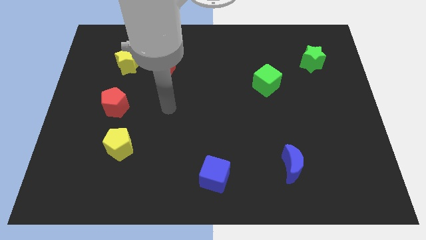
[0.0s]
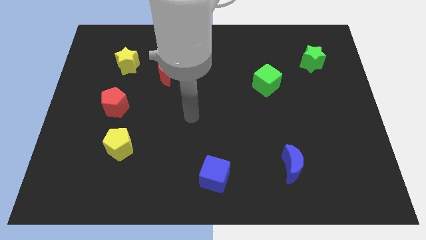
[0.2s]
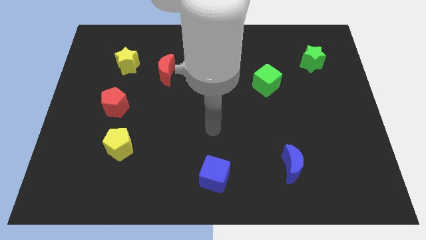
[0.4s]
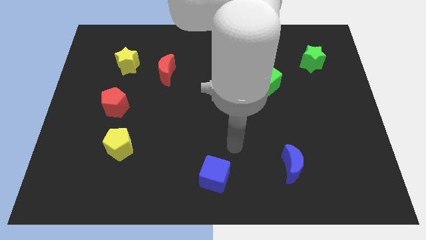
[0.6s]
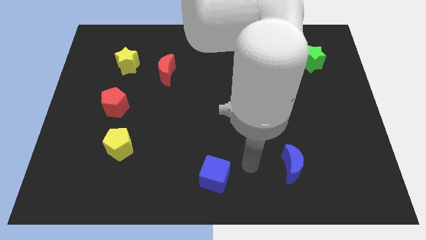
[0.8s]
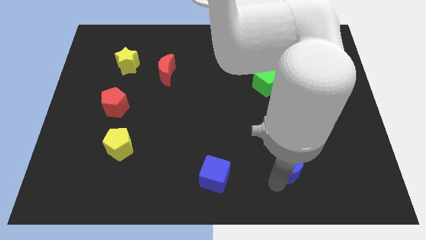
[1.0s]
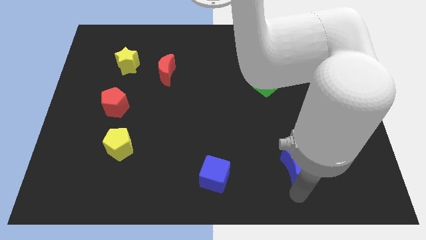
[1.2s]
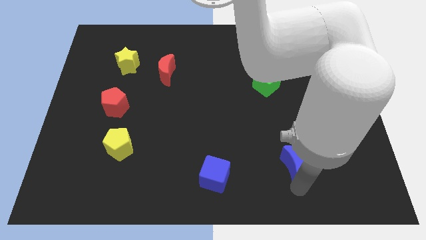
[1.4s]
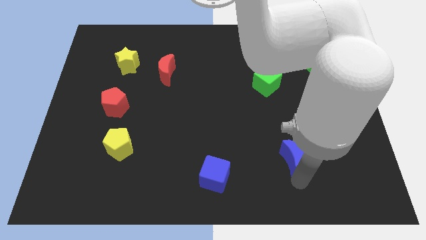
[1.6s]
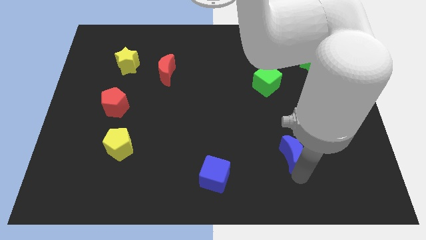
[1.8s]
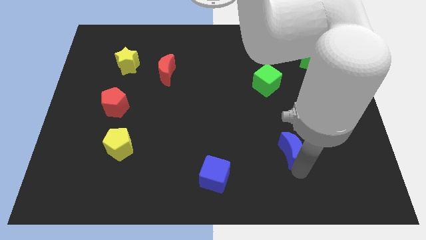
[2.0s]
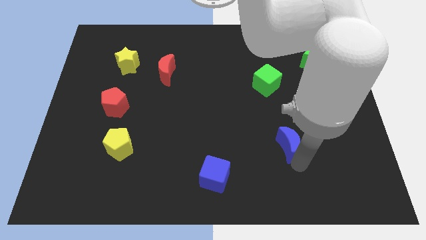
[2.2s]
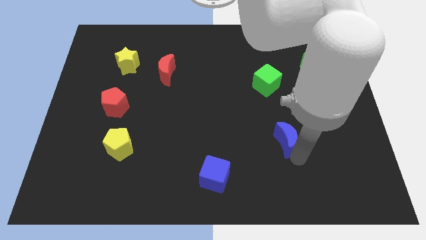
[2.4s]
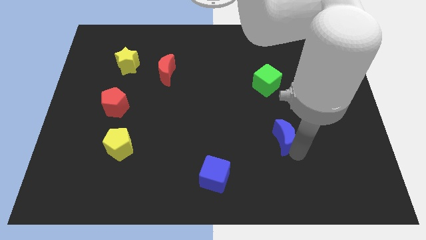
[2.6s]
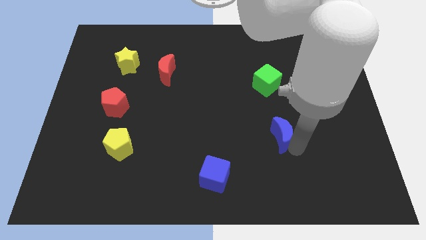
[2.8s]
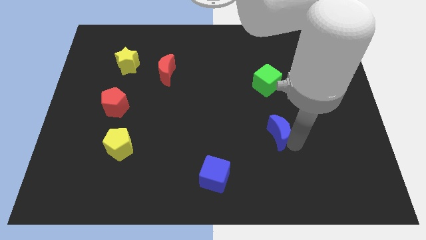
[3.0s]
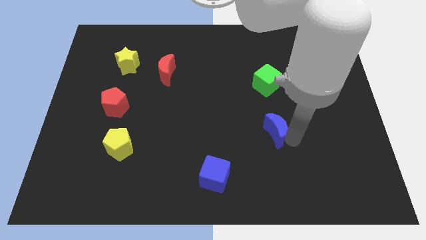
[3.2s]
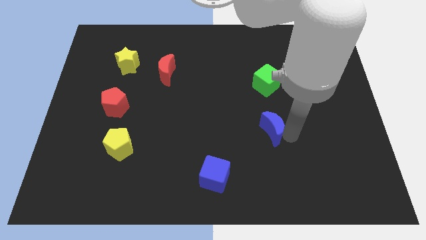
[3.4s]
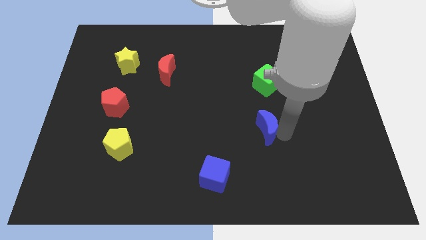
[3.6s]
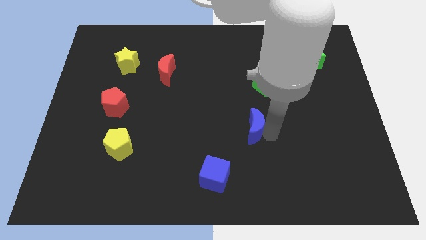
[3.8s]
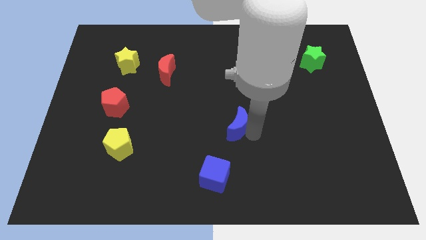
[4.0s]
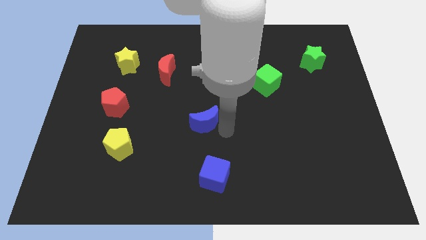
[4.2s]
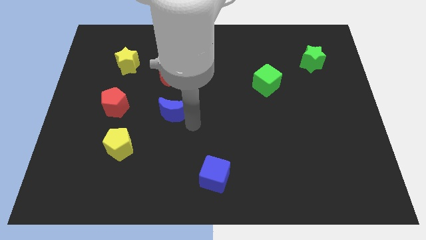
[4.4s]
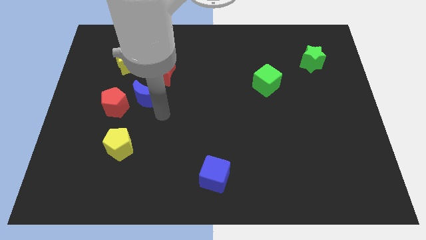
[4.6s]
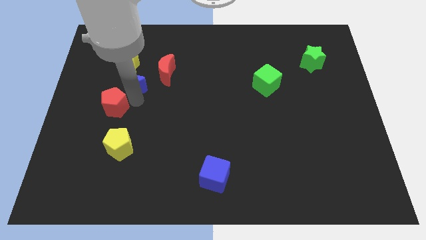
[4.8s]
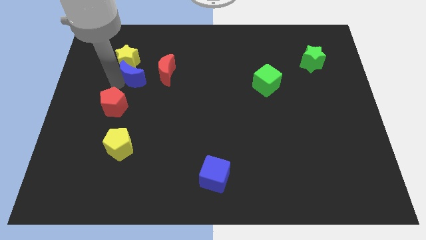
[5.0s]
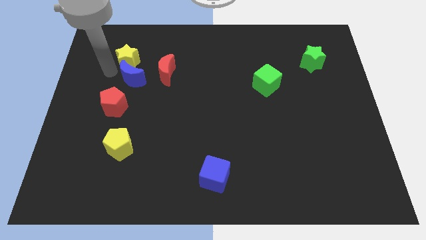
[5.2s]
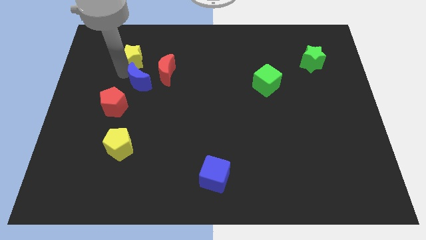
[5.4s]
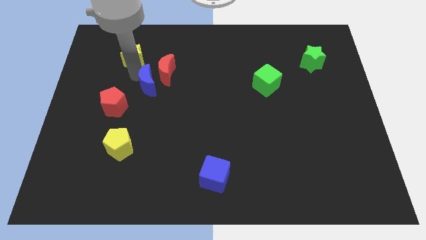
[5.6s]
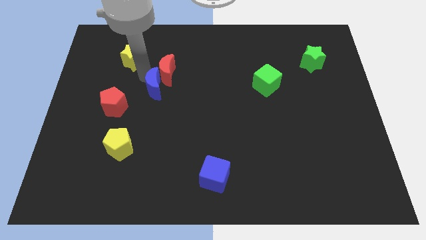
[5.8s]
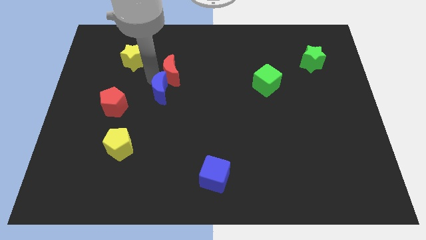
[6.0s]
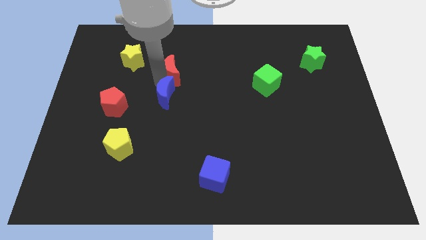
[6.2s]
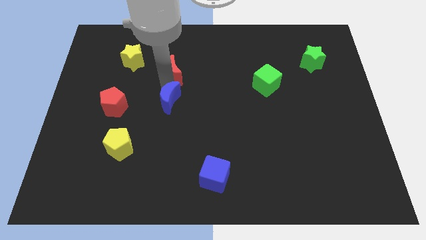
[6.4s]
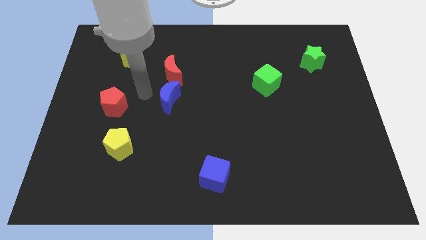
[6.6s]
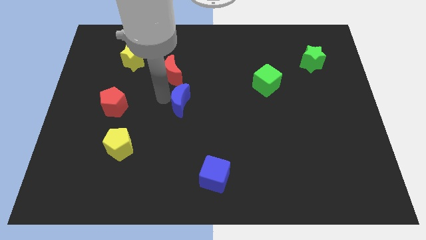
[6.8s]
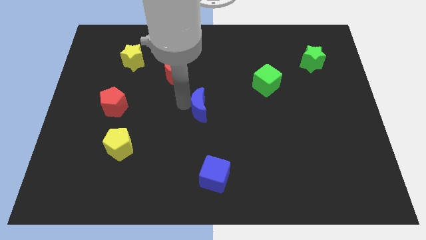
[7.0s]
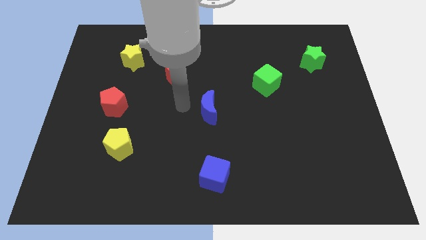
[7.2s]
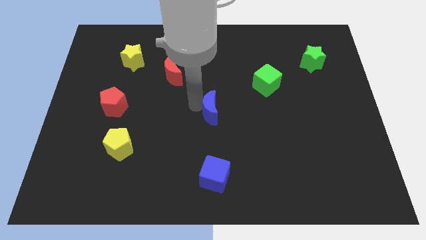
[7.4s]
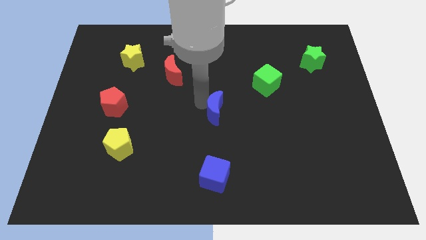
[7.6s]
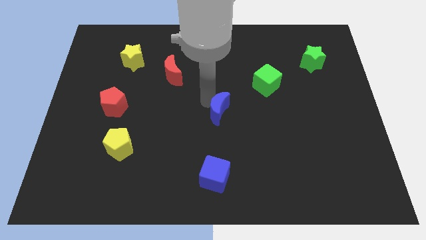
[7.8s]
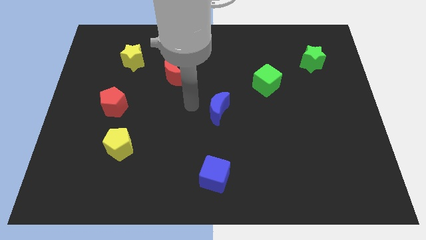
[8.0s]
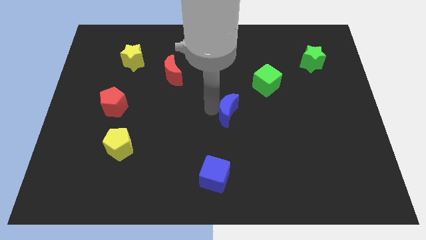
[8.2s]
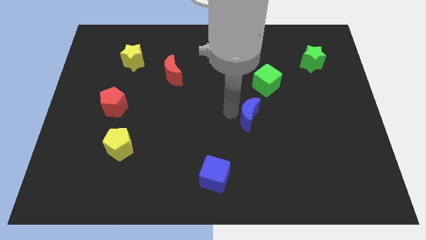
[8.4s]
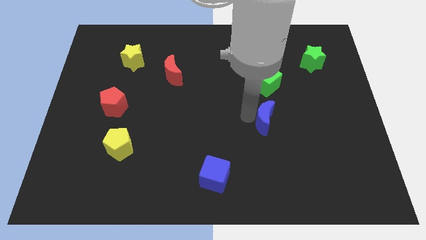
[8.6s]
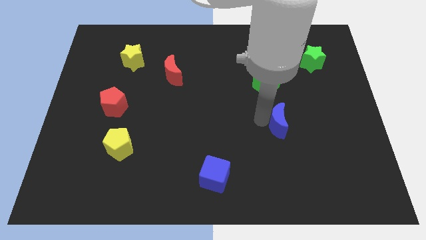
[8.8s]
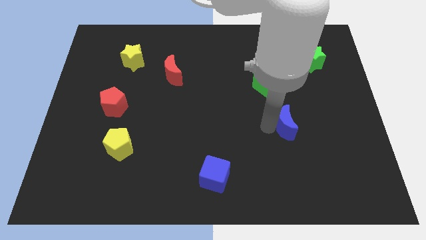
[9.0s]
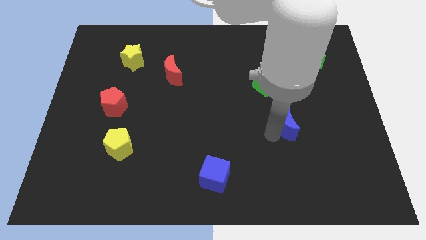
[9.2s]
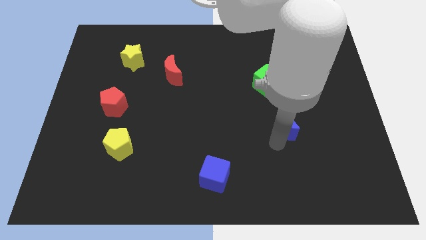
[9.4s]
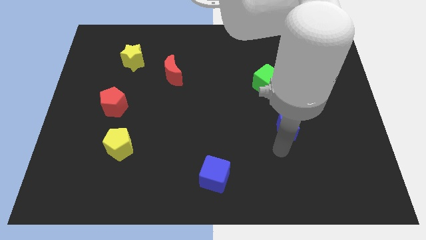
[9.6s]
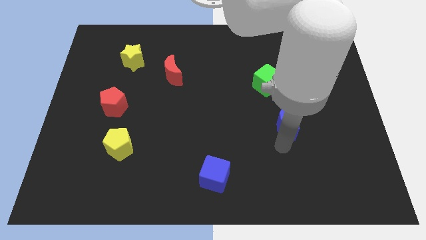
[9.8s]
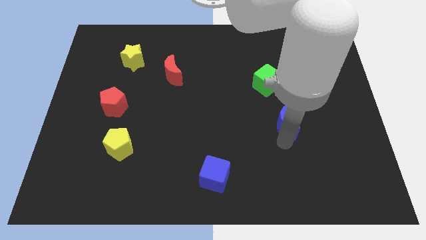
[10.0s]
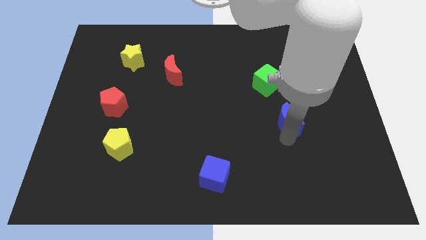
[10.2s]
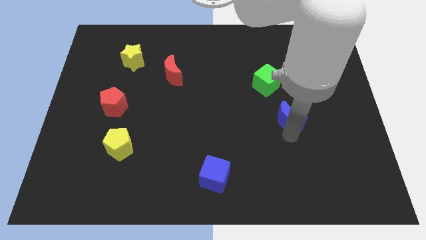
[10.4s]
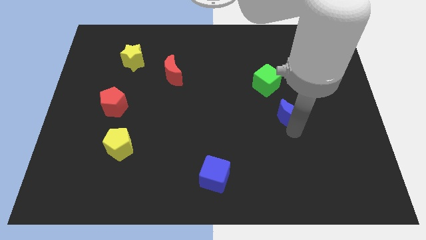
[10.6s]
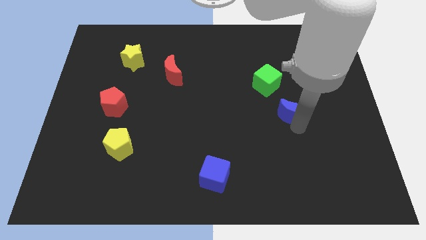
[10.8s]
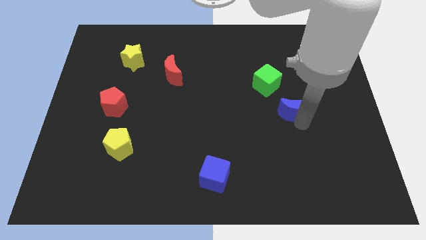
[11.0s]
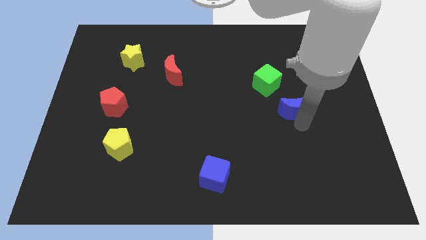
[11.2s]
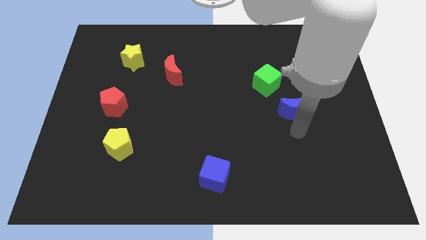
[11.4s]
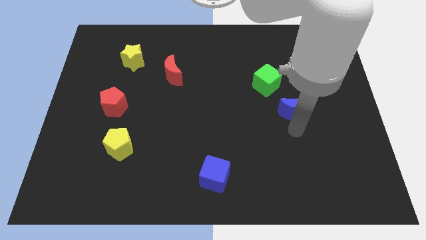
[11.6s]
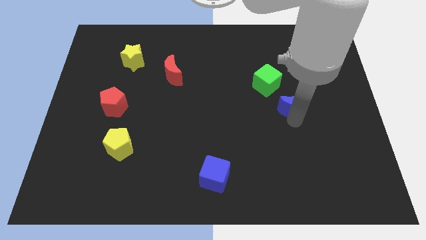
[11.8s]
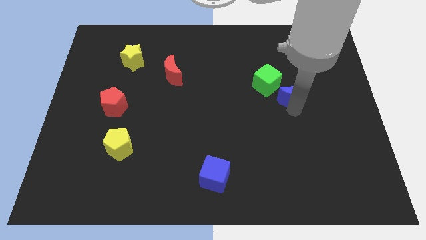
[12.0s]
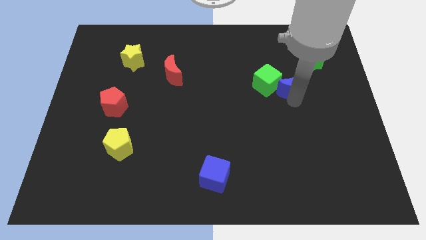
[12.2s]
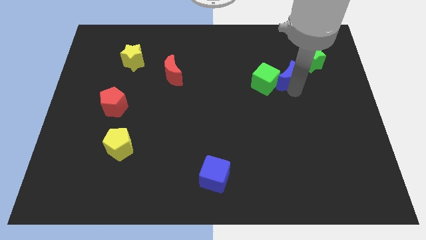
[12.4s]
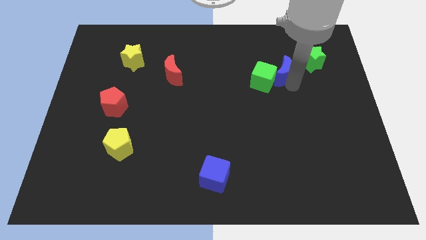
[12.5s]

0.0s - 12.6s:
slide the blue moon to the left of the green star
